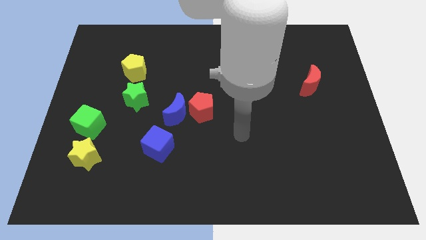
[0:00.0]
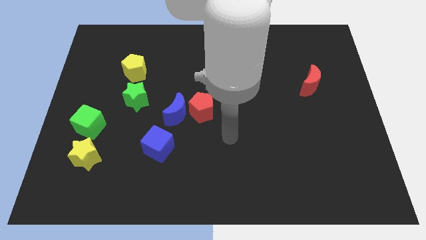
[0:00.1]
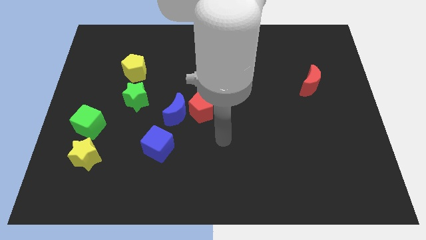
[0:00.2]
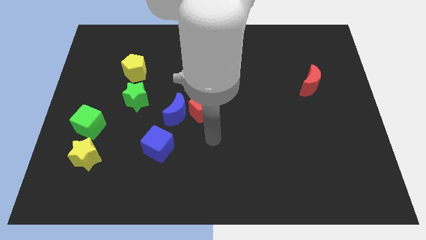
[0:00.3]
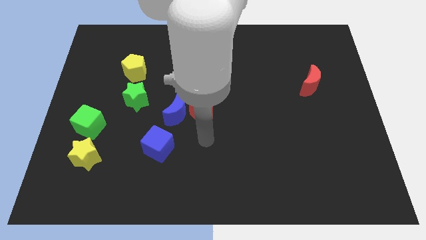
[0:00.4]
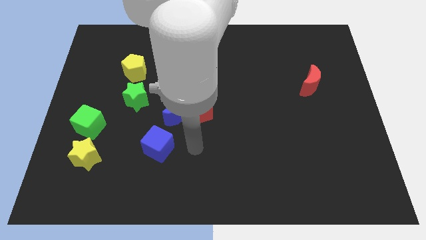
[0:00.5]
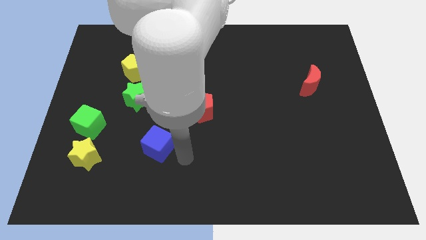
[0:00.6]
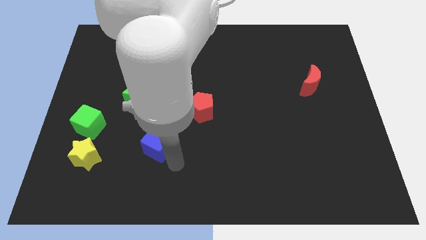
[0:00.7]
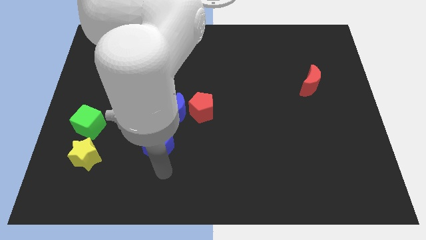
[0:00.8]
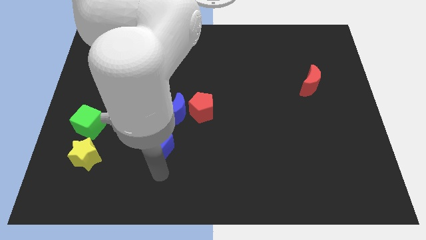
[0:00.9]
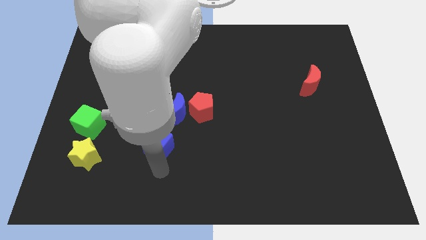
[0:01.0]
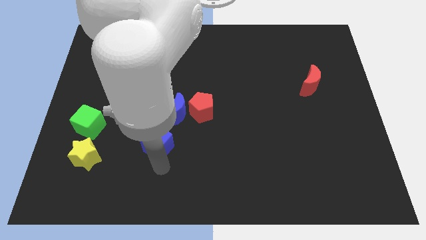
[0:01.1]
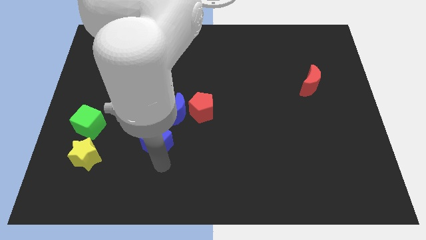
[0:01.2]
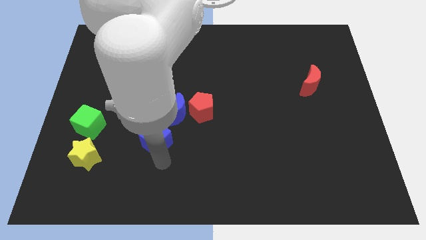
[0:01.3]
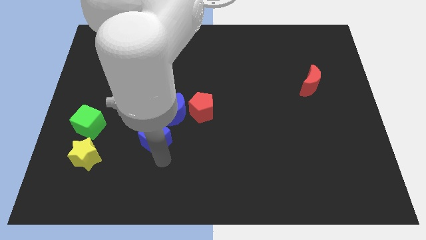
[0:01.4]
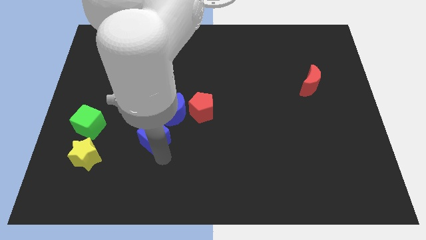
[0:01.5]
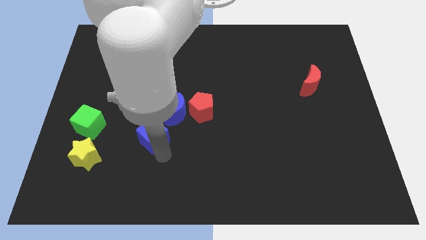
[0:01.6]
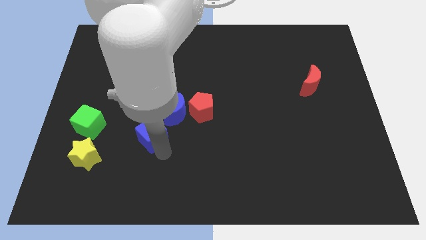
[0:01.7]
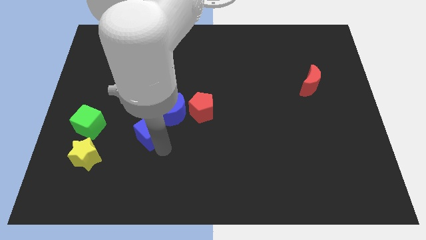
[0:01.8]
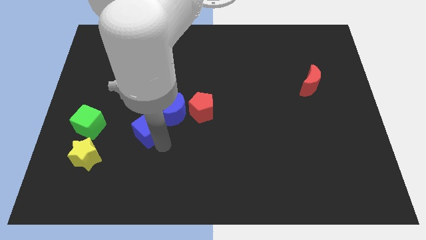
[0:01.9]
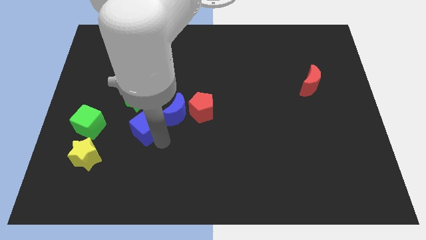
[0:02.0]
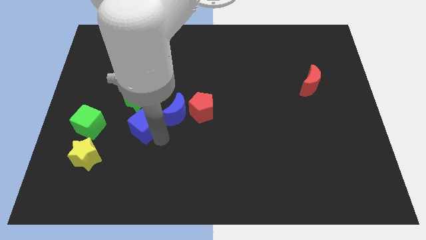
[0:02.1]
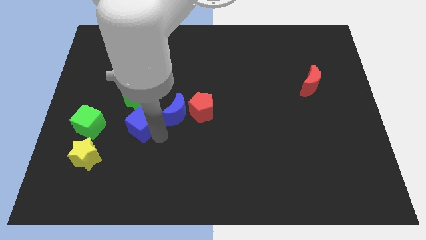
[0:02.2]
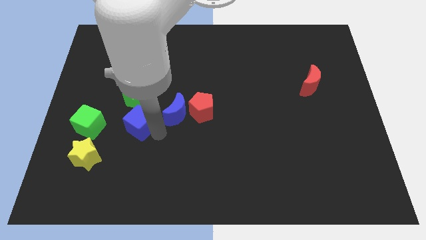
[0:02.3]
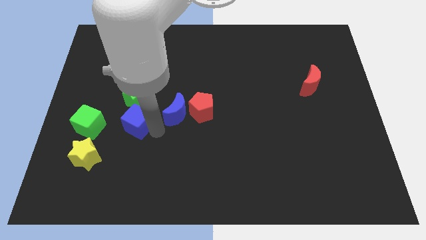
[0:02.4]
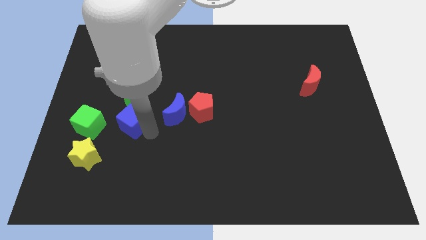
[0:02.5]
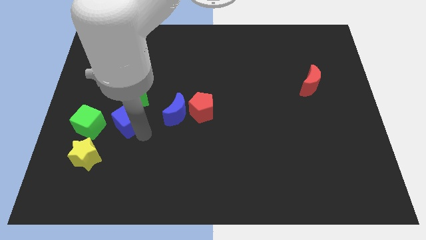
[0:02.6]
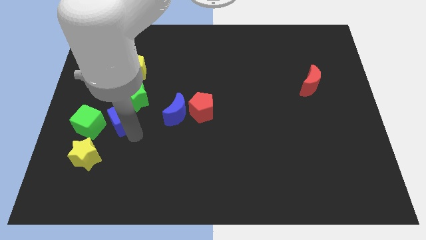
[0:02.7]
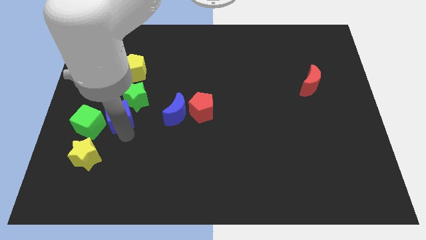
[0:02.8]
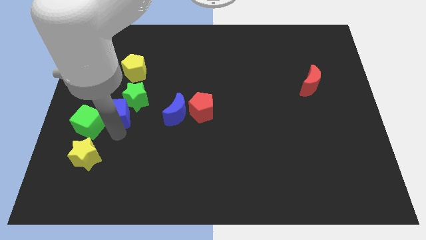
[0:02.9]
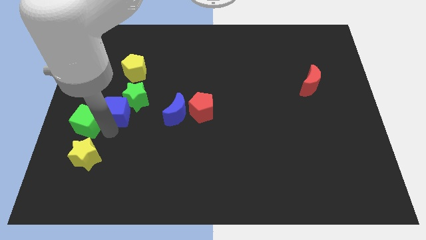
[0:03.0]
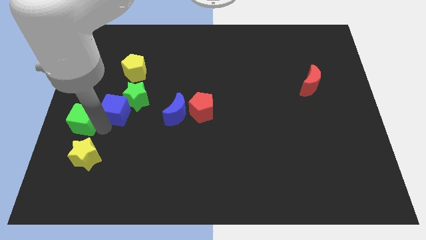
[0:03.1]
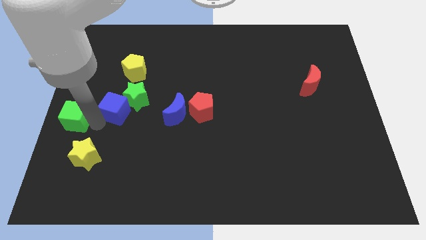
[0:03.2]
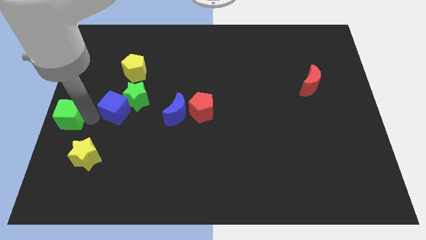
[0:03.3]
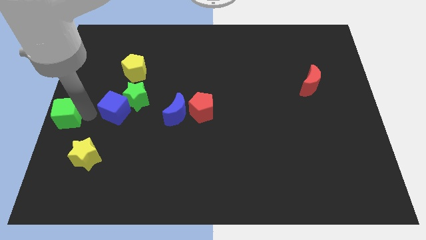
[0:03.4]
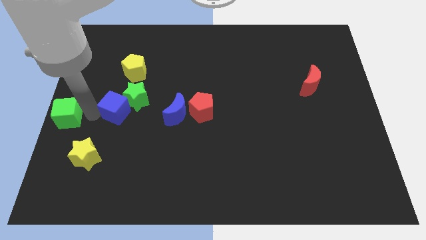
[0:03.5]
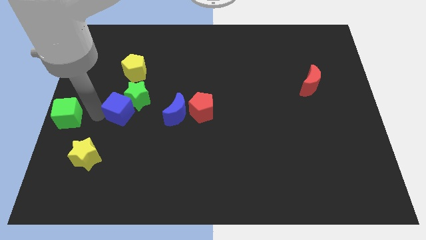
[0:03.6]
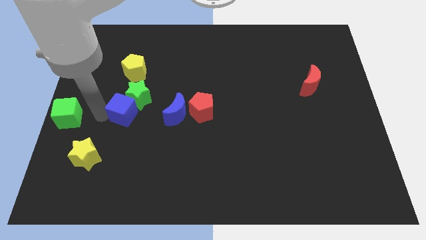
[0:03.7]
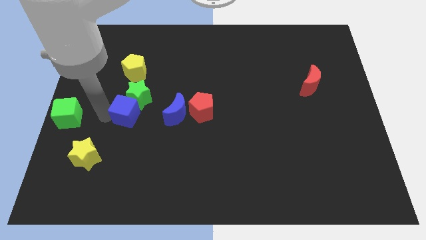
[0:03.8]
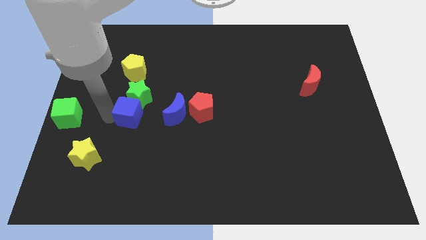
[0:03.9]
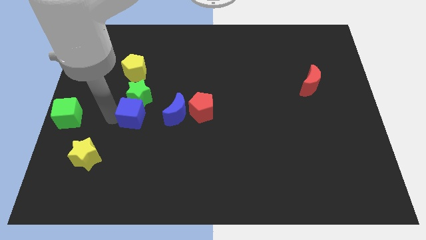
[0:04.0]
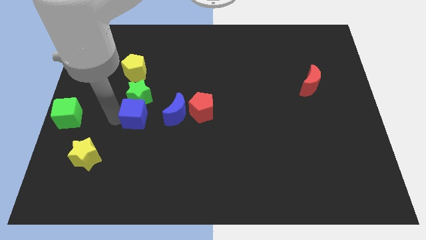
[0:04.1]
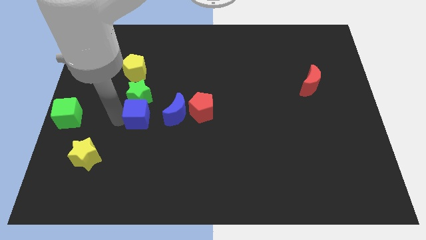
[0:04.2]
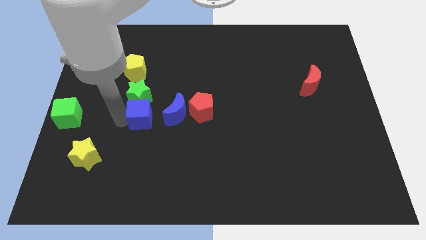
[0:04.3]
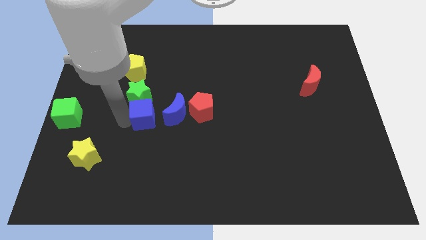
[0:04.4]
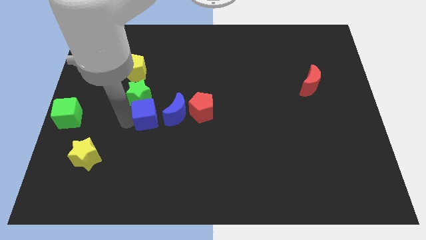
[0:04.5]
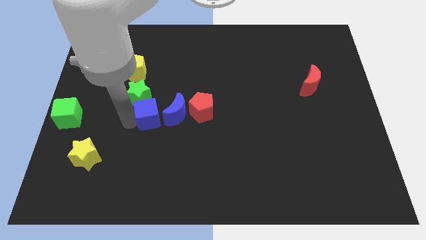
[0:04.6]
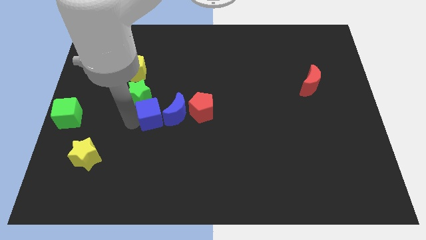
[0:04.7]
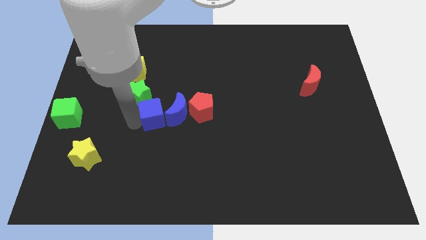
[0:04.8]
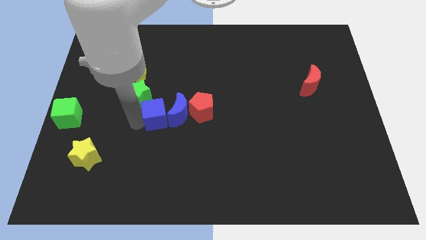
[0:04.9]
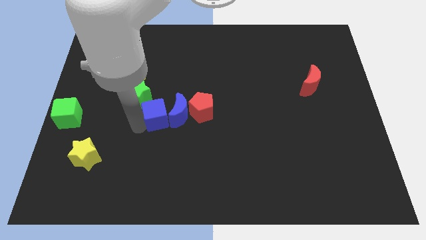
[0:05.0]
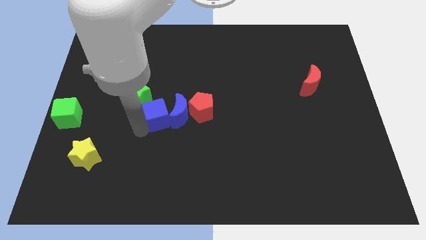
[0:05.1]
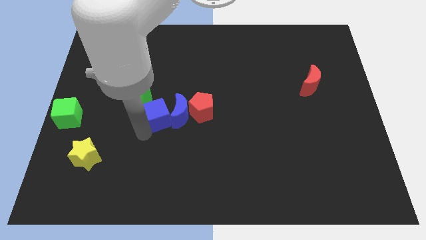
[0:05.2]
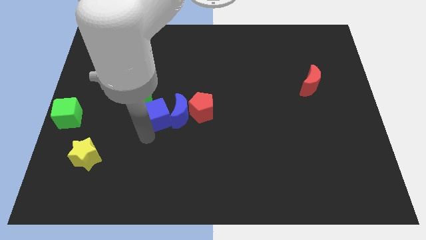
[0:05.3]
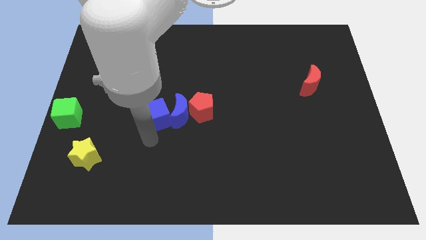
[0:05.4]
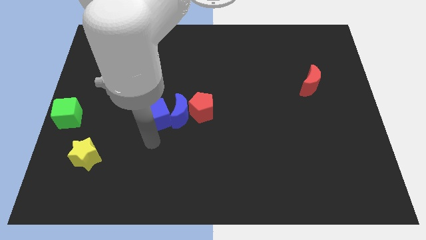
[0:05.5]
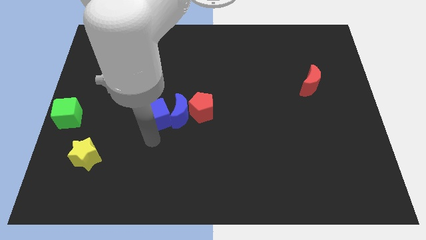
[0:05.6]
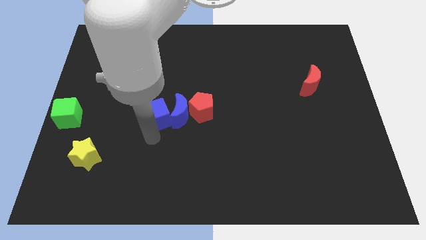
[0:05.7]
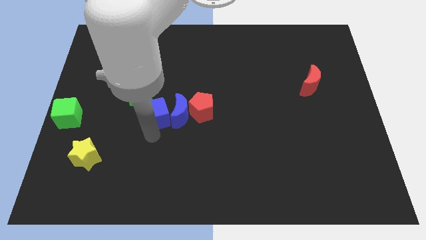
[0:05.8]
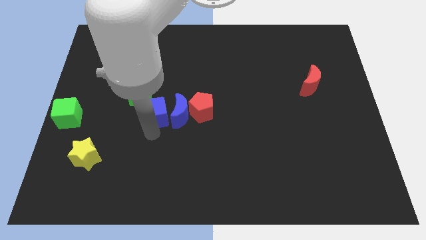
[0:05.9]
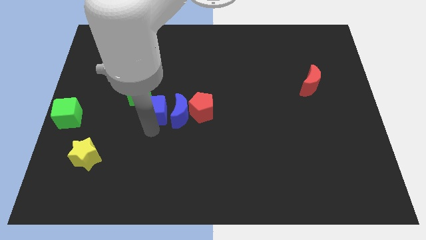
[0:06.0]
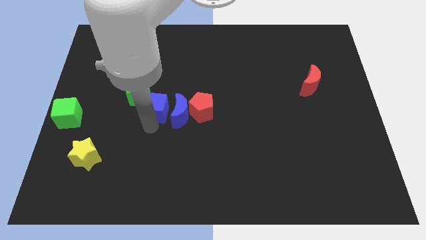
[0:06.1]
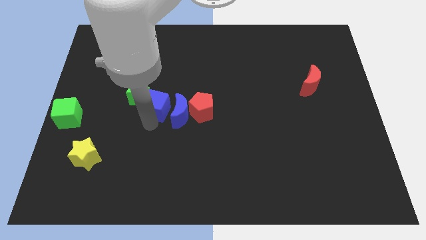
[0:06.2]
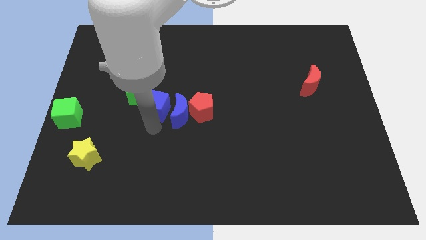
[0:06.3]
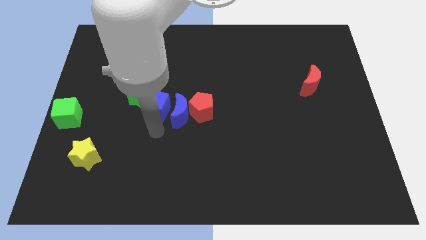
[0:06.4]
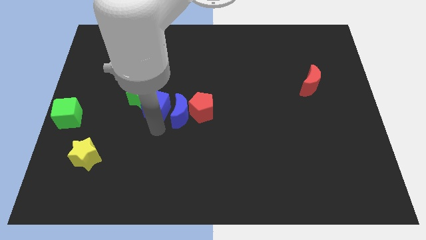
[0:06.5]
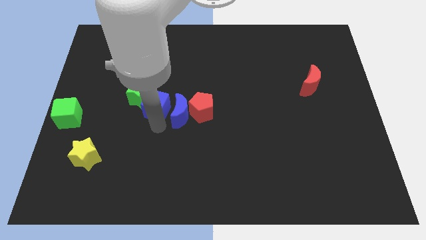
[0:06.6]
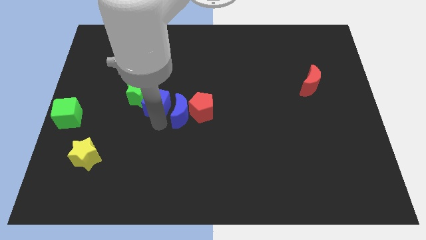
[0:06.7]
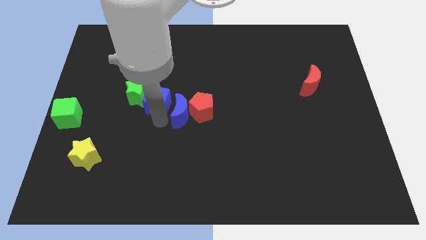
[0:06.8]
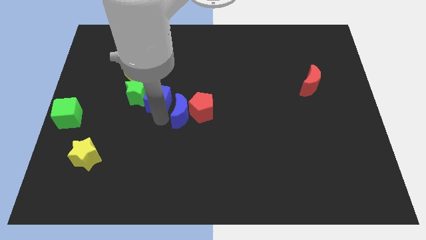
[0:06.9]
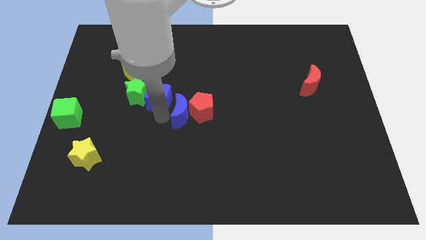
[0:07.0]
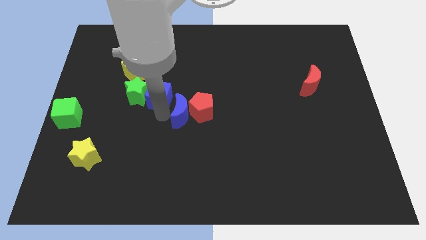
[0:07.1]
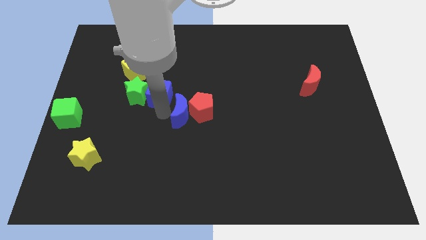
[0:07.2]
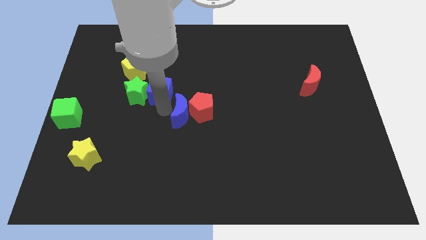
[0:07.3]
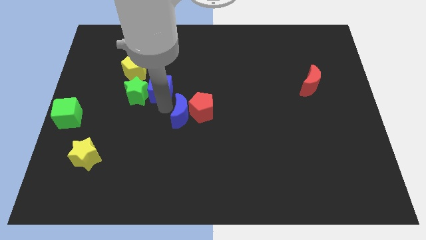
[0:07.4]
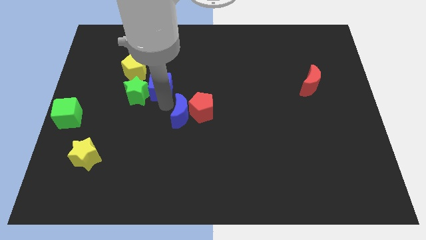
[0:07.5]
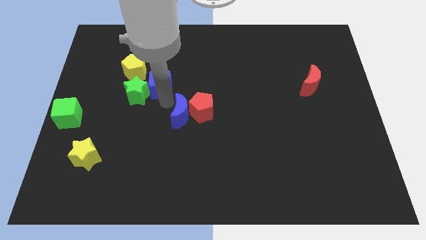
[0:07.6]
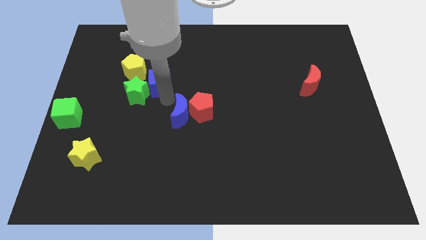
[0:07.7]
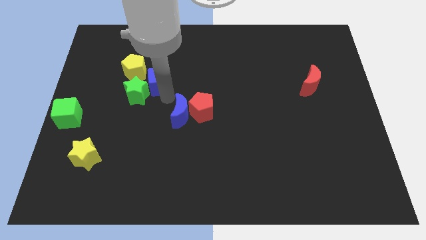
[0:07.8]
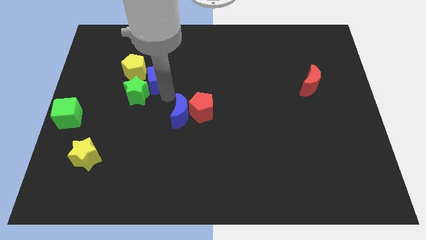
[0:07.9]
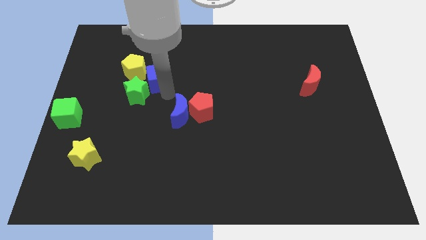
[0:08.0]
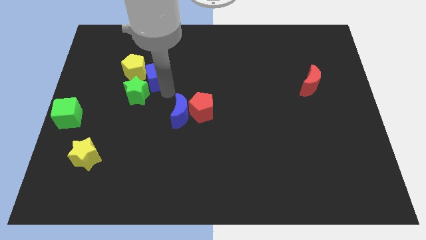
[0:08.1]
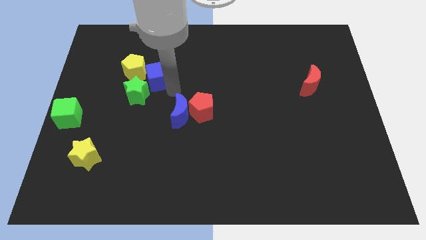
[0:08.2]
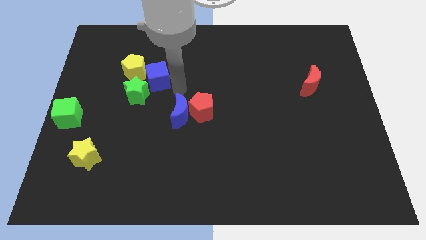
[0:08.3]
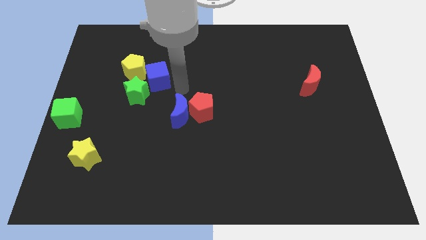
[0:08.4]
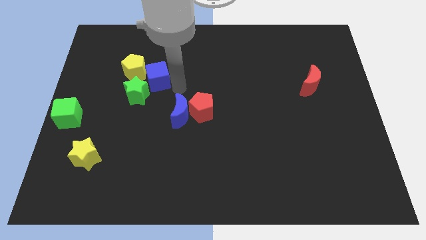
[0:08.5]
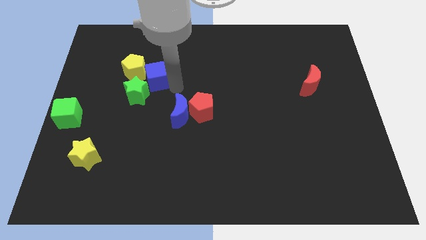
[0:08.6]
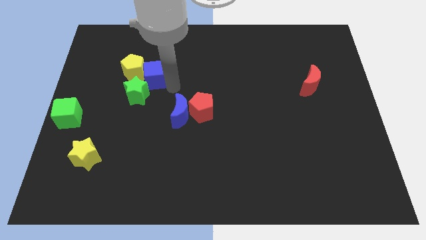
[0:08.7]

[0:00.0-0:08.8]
slide the blue cube next to the yellow pentagon
